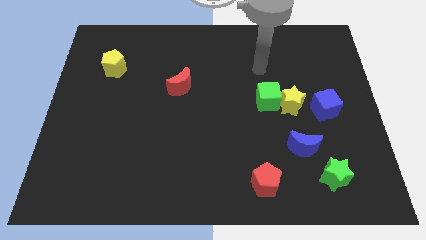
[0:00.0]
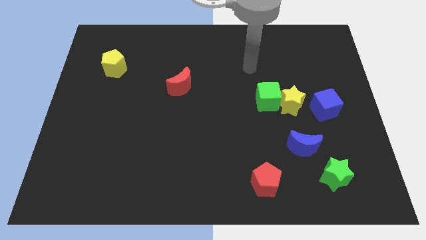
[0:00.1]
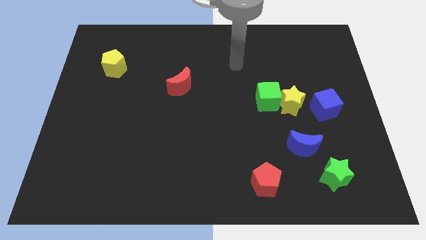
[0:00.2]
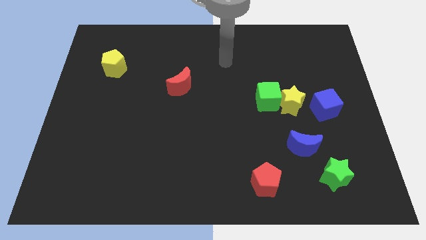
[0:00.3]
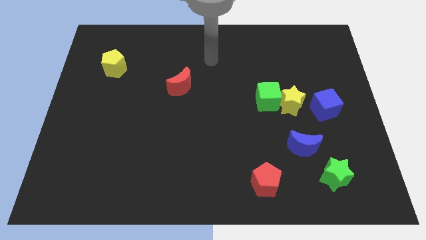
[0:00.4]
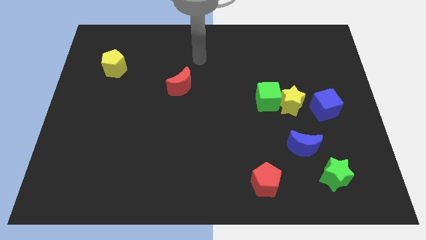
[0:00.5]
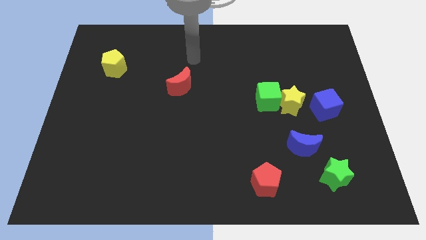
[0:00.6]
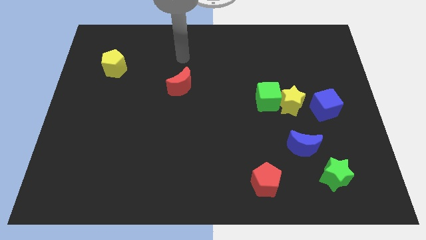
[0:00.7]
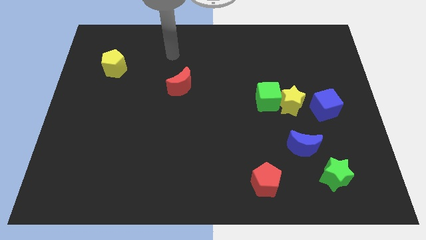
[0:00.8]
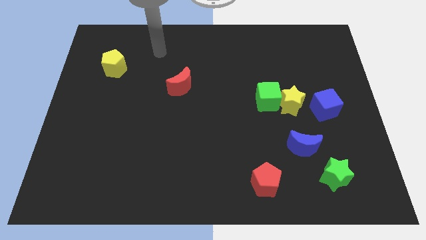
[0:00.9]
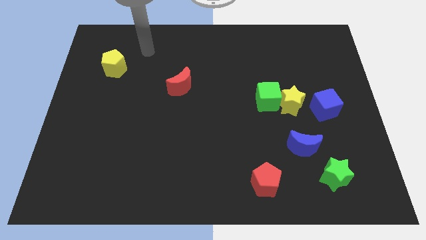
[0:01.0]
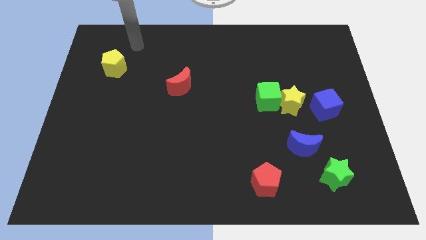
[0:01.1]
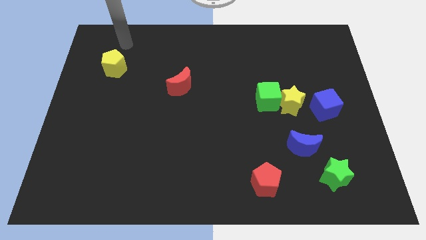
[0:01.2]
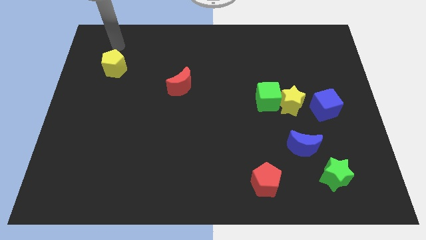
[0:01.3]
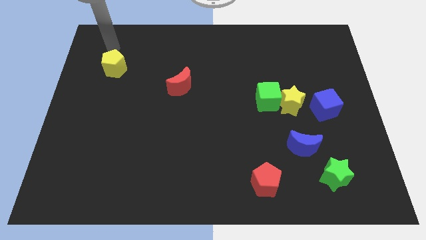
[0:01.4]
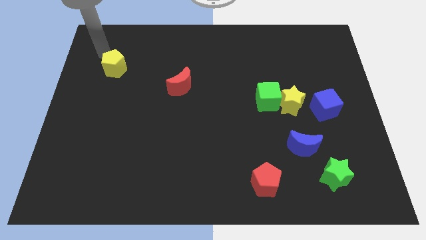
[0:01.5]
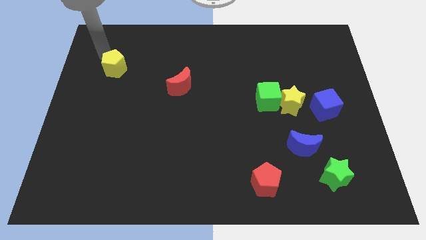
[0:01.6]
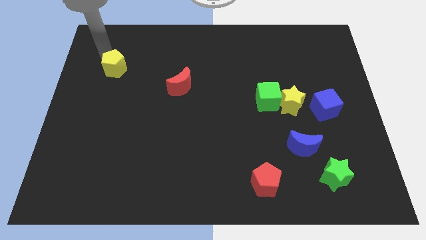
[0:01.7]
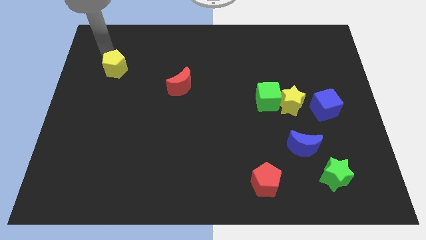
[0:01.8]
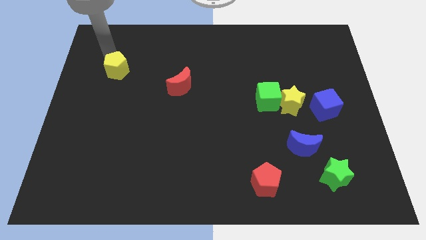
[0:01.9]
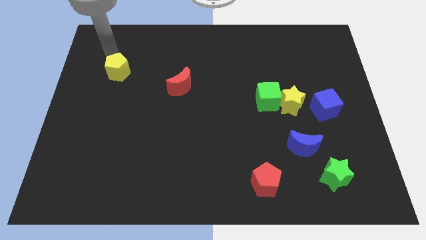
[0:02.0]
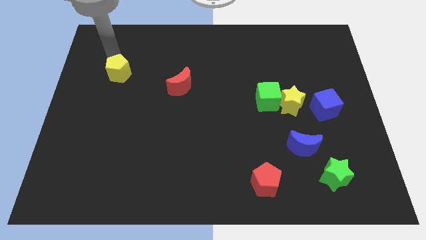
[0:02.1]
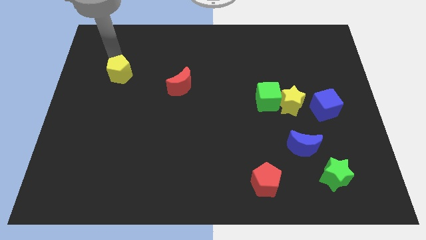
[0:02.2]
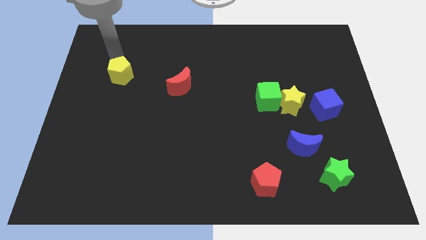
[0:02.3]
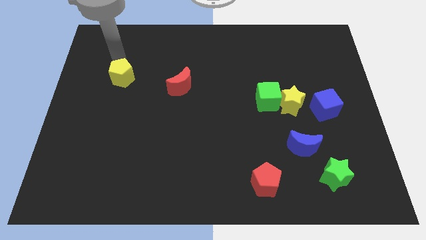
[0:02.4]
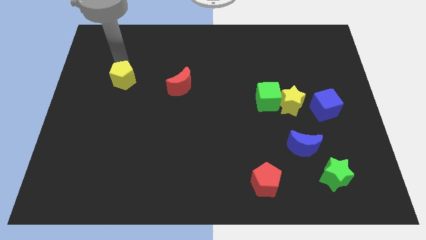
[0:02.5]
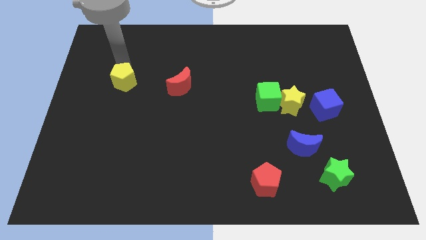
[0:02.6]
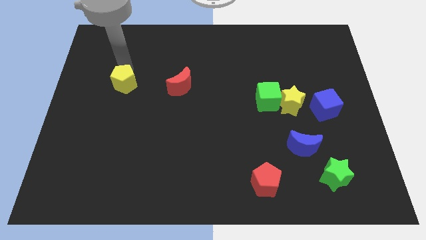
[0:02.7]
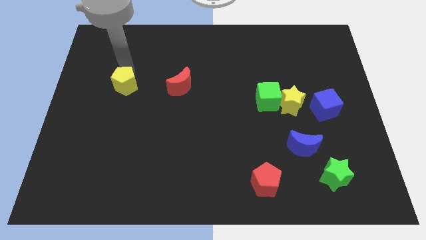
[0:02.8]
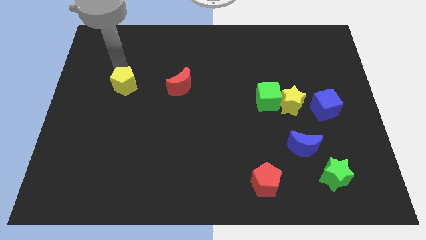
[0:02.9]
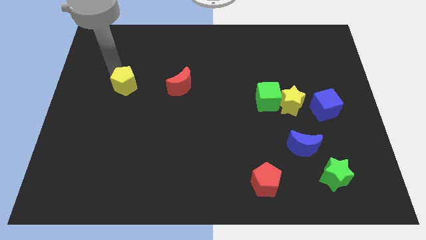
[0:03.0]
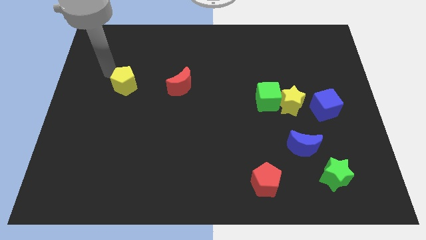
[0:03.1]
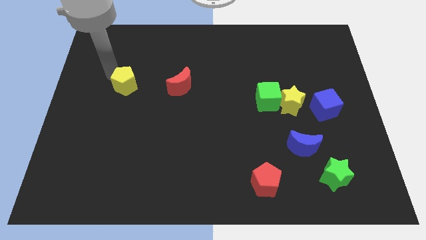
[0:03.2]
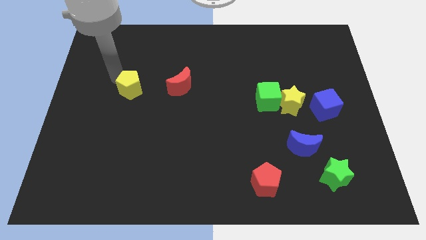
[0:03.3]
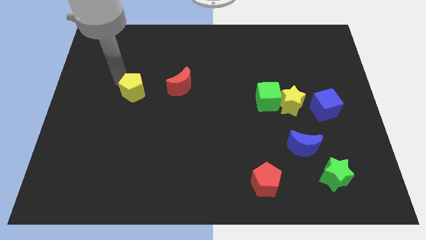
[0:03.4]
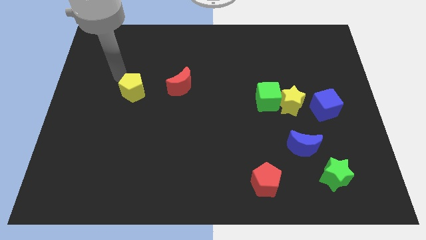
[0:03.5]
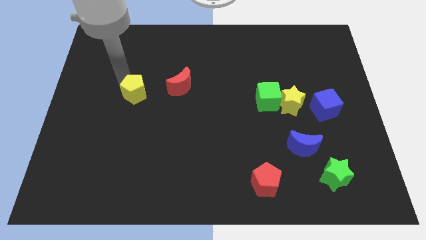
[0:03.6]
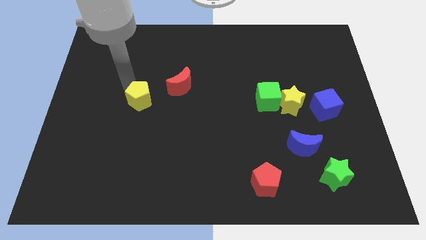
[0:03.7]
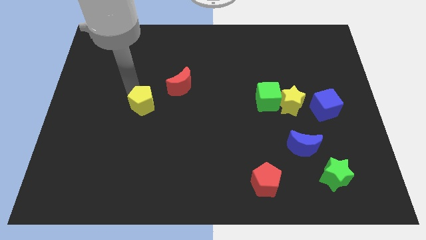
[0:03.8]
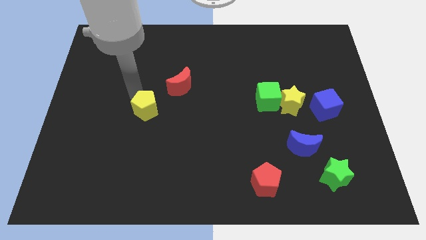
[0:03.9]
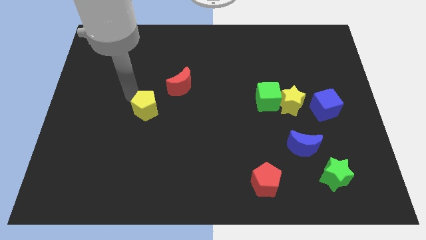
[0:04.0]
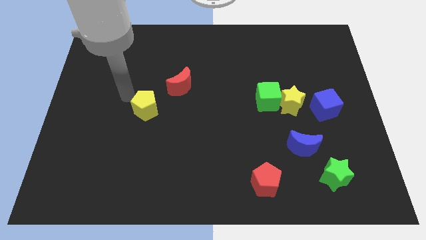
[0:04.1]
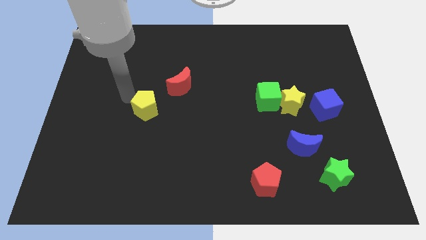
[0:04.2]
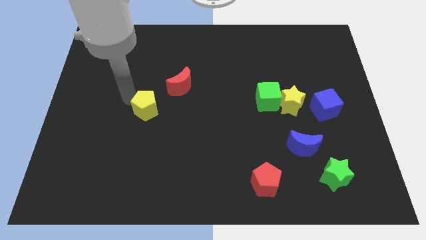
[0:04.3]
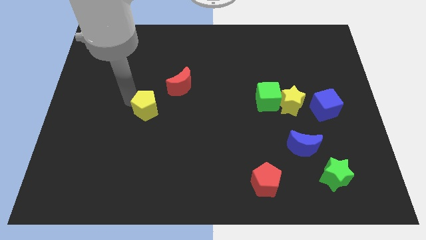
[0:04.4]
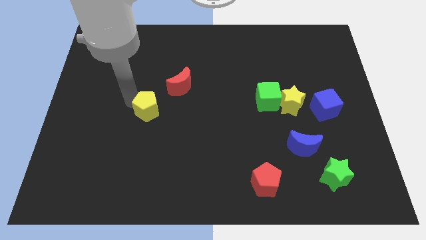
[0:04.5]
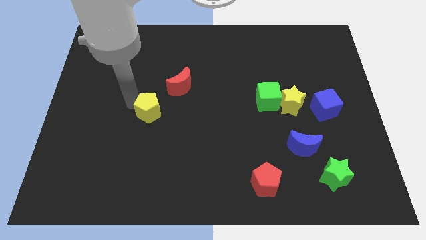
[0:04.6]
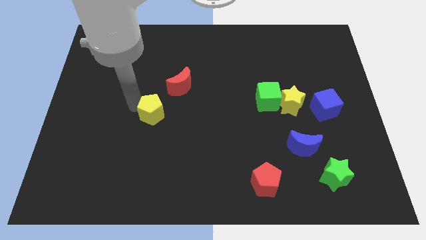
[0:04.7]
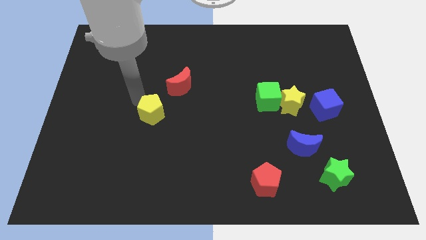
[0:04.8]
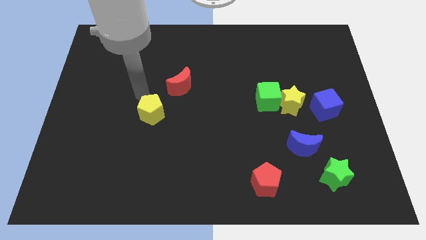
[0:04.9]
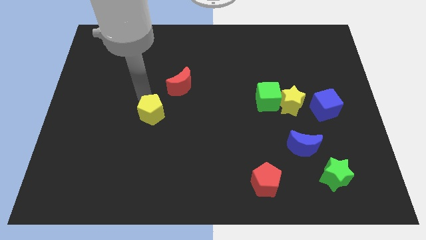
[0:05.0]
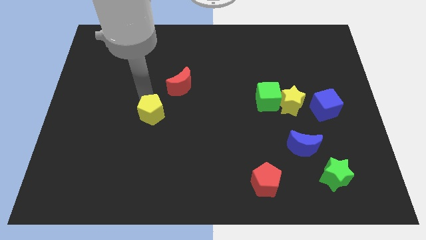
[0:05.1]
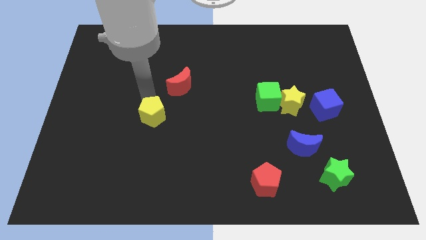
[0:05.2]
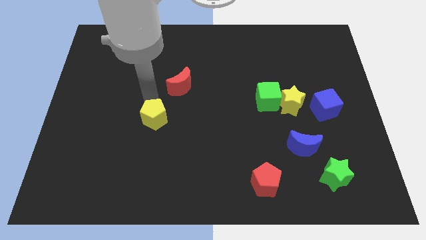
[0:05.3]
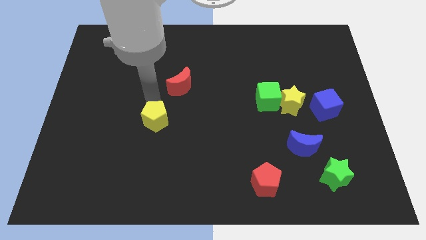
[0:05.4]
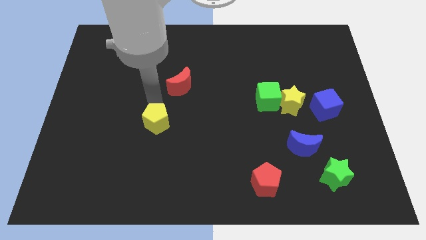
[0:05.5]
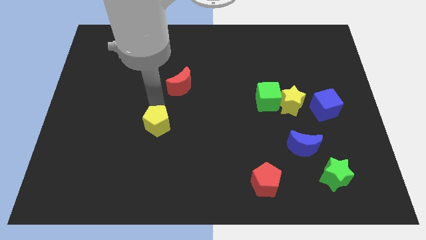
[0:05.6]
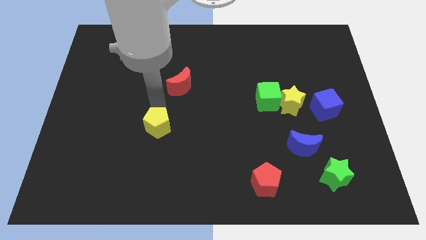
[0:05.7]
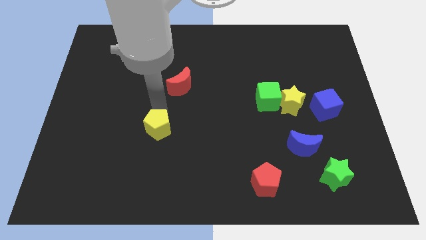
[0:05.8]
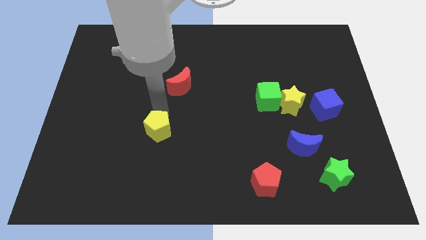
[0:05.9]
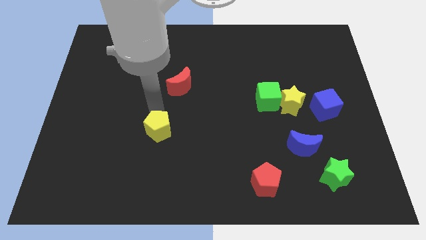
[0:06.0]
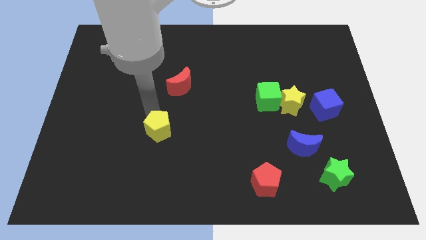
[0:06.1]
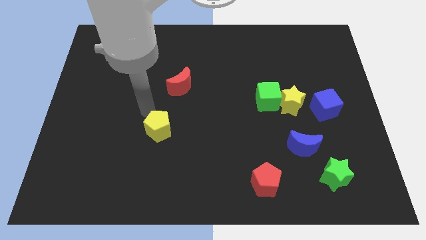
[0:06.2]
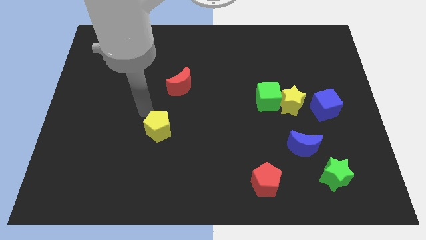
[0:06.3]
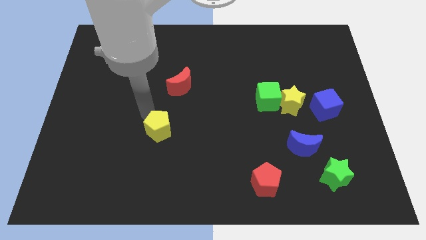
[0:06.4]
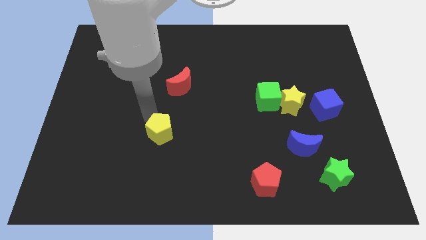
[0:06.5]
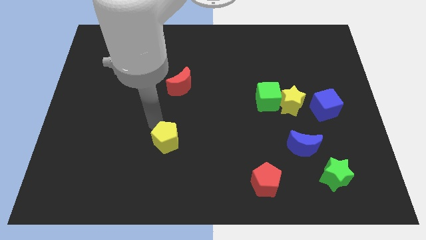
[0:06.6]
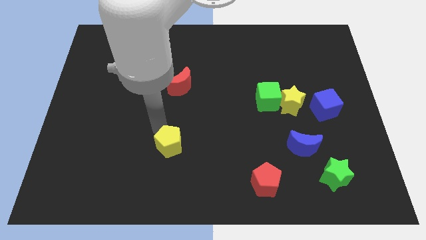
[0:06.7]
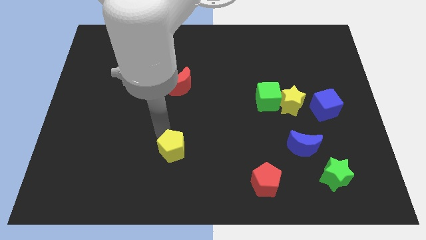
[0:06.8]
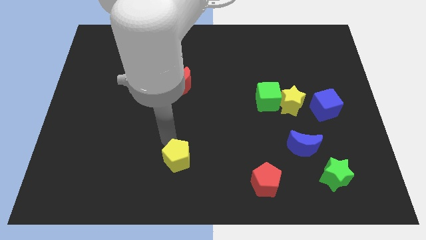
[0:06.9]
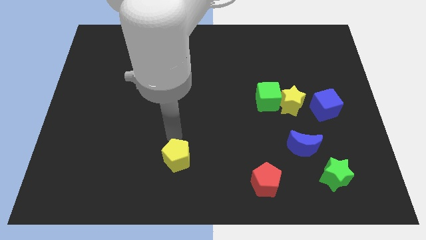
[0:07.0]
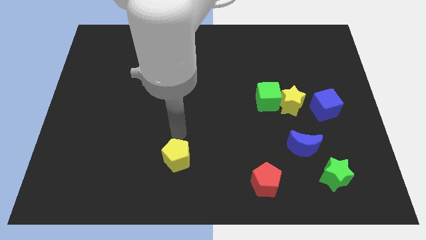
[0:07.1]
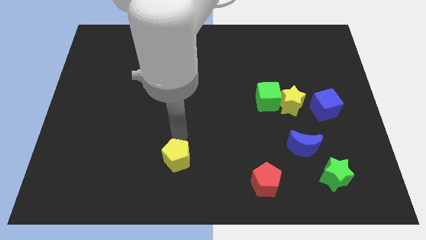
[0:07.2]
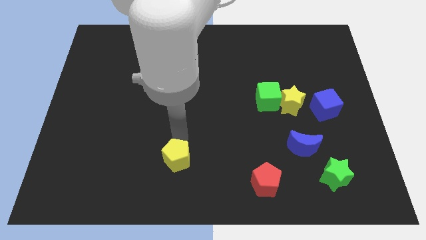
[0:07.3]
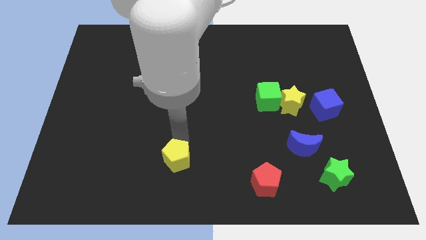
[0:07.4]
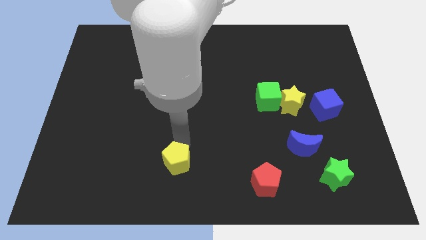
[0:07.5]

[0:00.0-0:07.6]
push the yellow pentagon to the bottom
